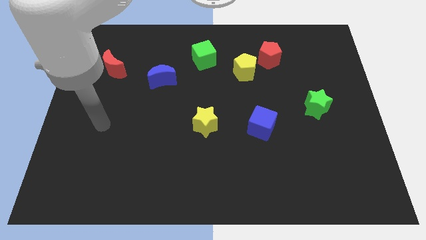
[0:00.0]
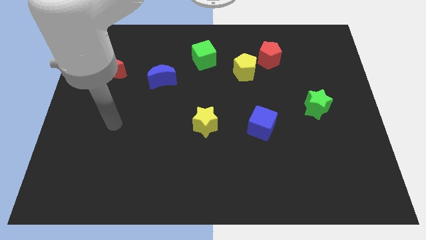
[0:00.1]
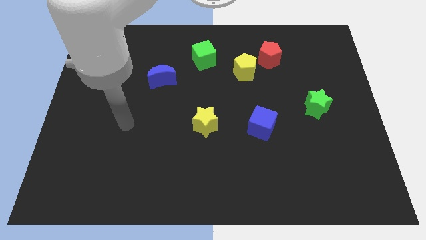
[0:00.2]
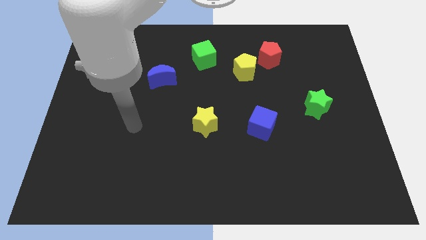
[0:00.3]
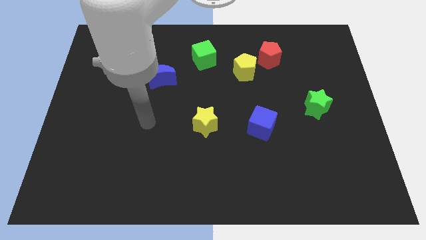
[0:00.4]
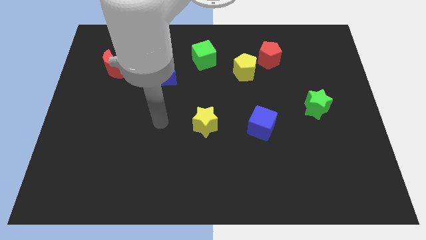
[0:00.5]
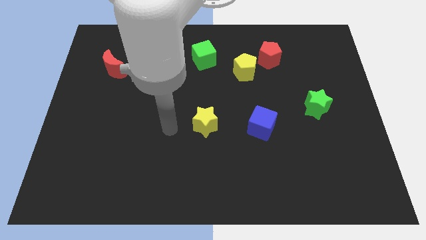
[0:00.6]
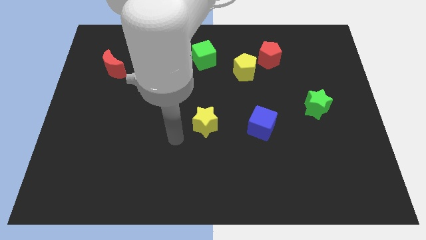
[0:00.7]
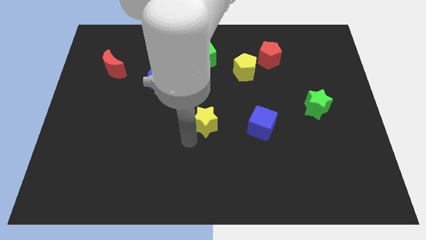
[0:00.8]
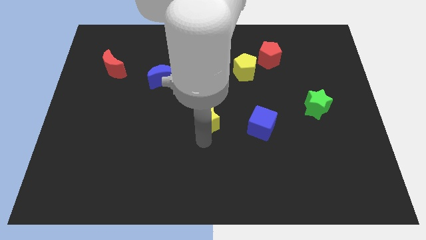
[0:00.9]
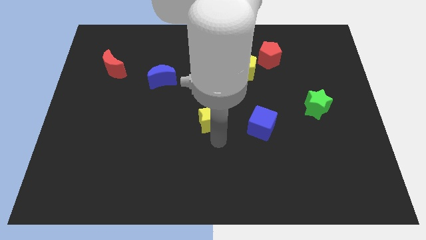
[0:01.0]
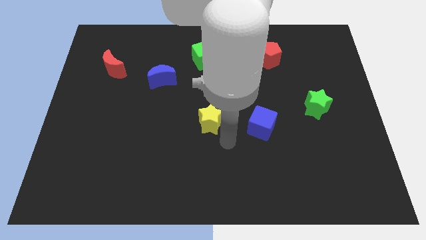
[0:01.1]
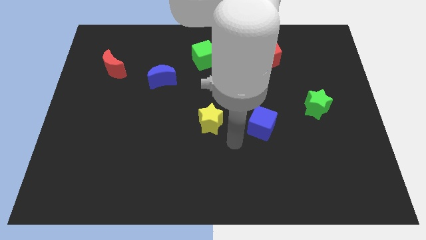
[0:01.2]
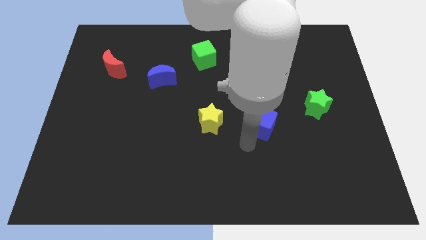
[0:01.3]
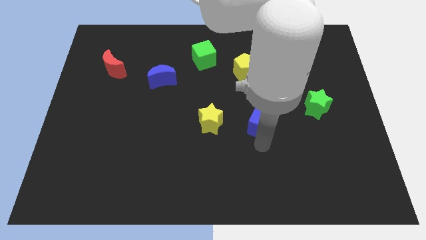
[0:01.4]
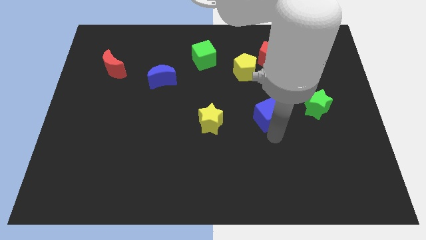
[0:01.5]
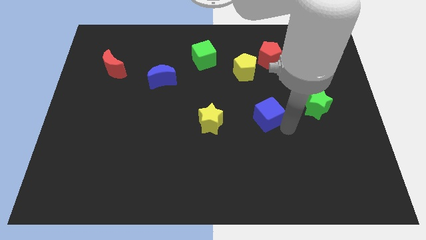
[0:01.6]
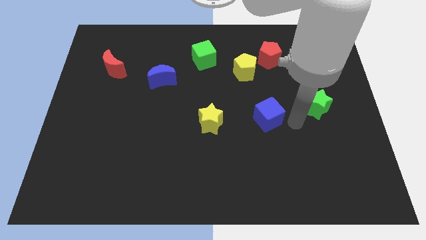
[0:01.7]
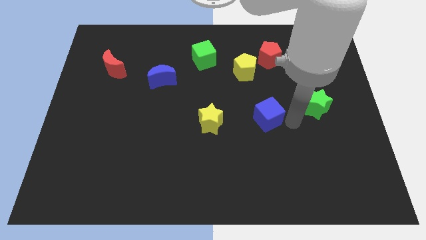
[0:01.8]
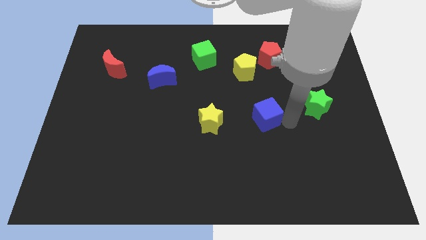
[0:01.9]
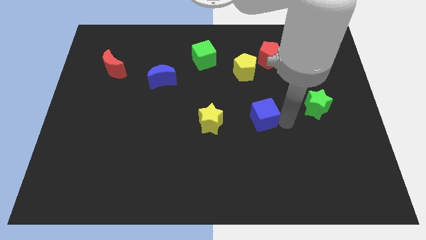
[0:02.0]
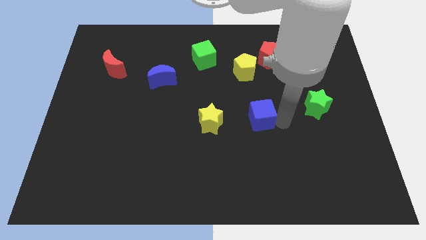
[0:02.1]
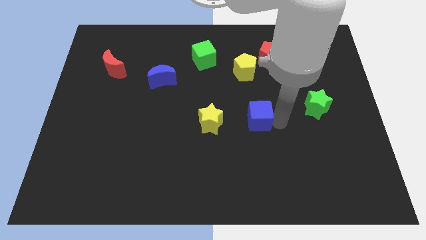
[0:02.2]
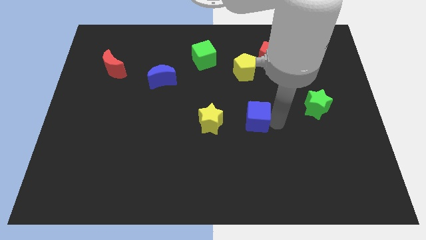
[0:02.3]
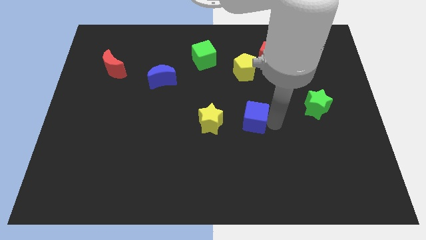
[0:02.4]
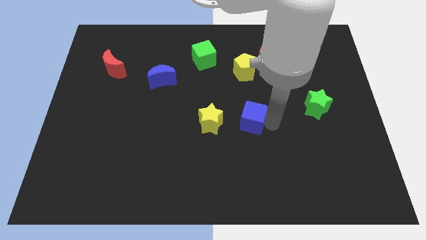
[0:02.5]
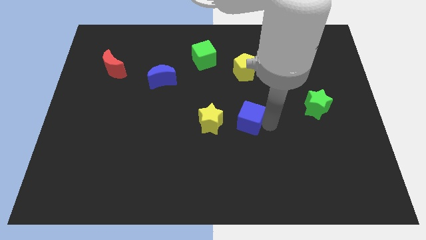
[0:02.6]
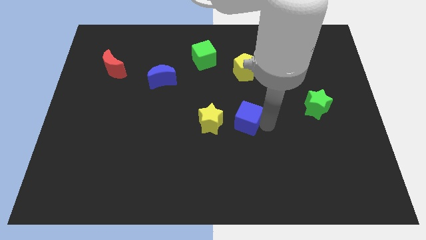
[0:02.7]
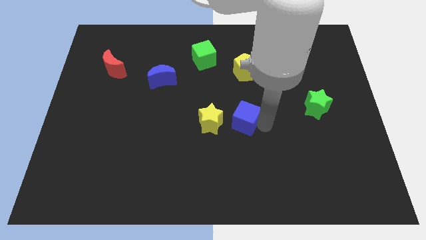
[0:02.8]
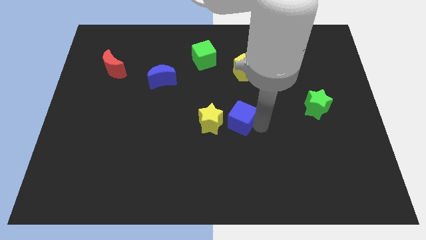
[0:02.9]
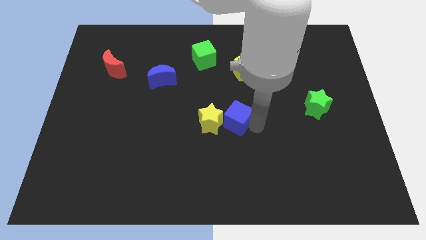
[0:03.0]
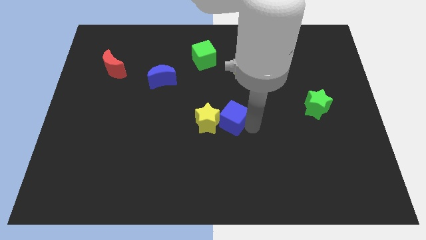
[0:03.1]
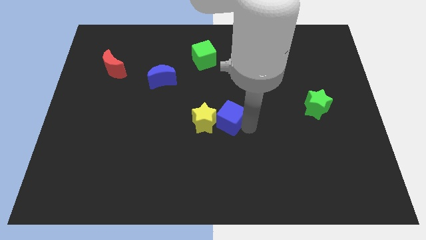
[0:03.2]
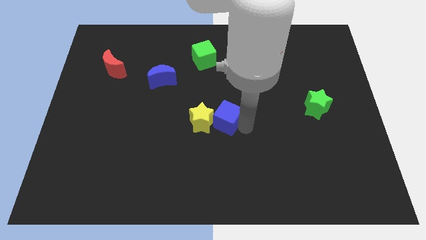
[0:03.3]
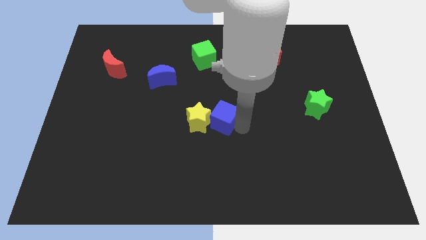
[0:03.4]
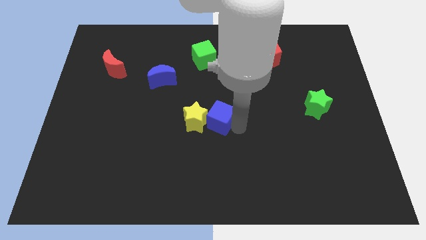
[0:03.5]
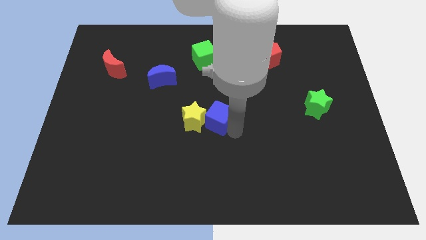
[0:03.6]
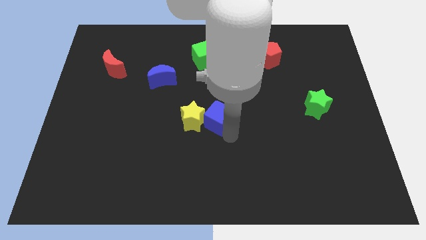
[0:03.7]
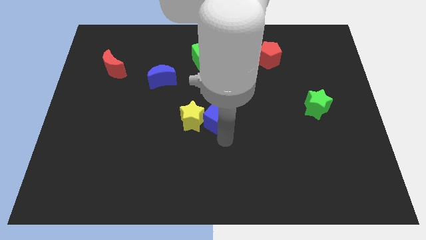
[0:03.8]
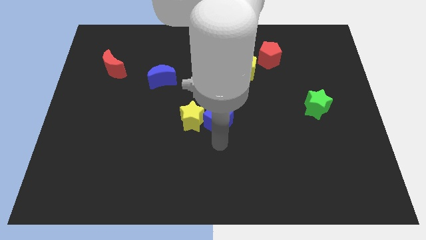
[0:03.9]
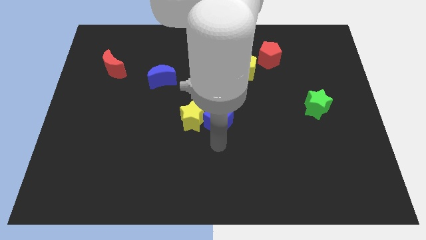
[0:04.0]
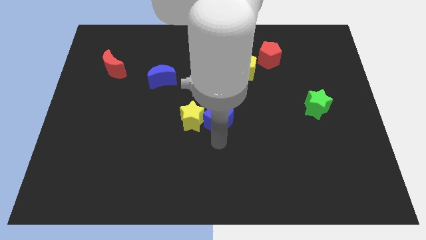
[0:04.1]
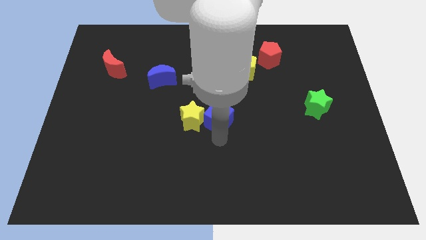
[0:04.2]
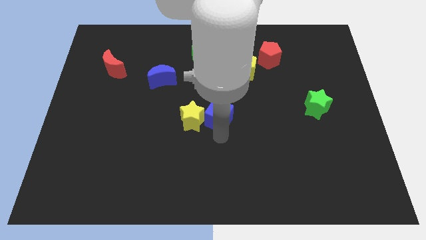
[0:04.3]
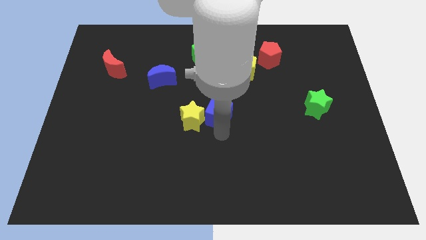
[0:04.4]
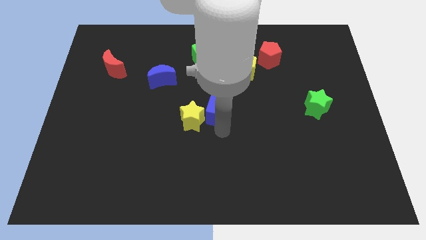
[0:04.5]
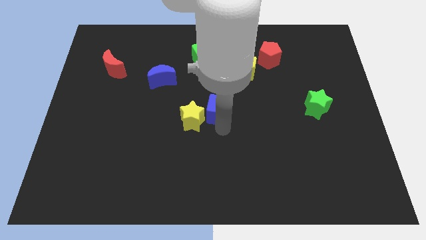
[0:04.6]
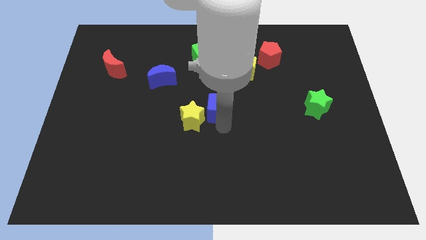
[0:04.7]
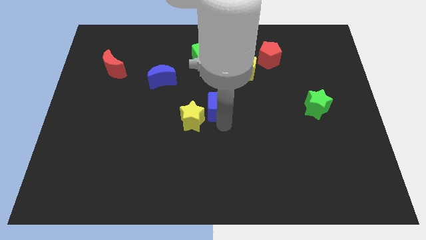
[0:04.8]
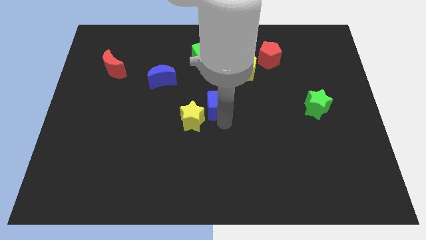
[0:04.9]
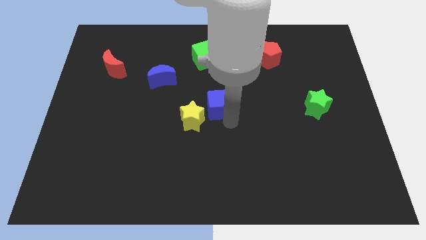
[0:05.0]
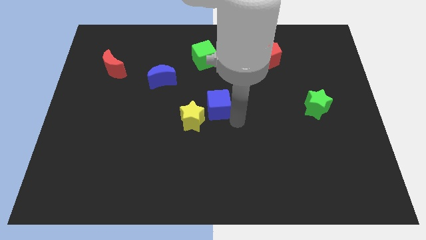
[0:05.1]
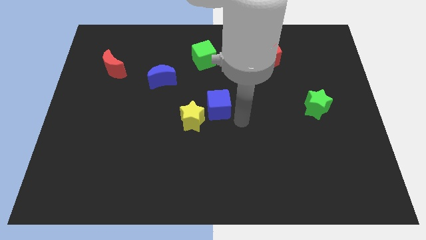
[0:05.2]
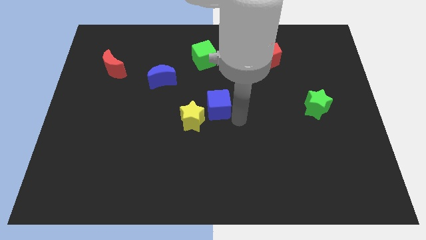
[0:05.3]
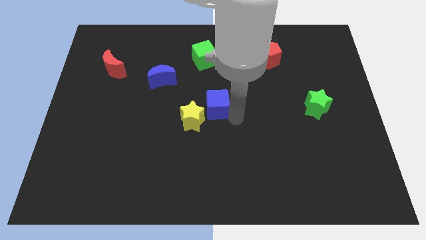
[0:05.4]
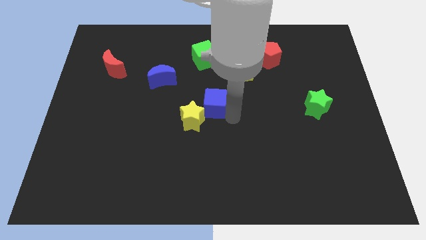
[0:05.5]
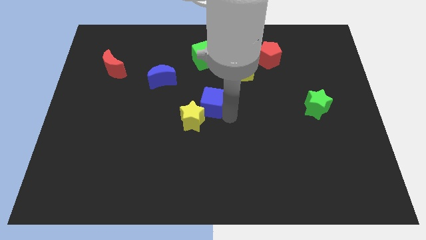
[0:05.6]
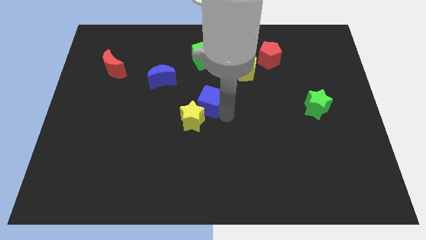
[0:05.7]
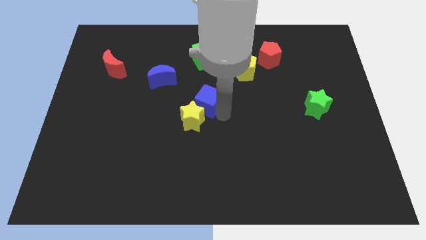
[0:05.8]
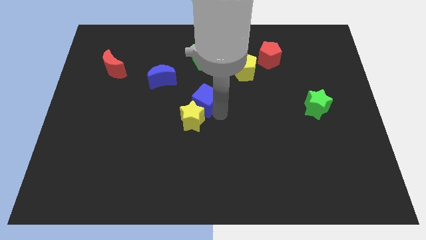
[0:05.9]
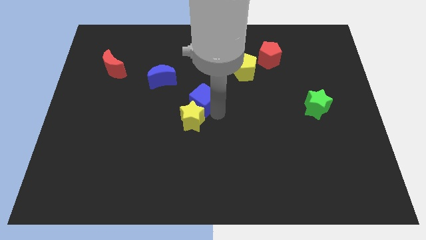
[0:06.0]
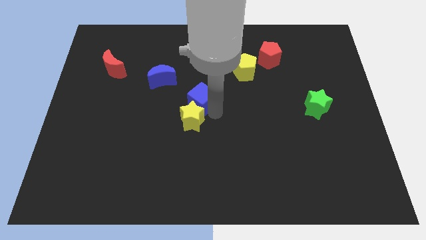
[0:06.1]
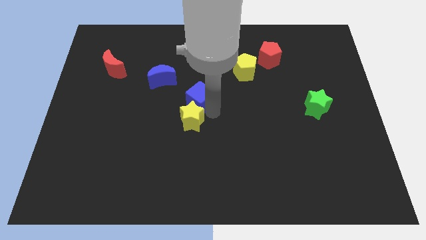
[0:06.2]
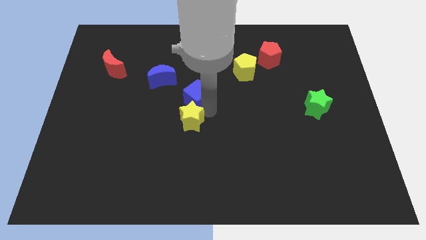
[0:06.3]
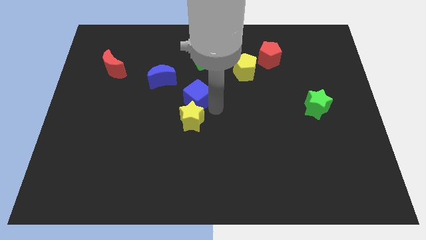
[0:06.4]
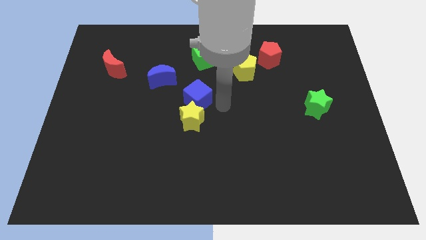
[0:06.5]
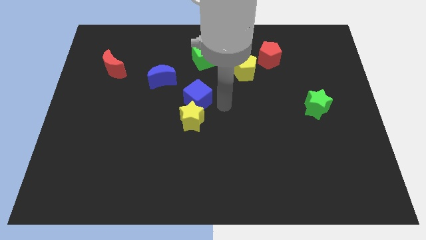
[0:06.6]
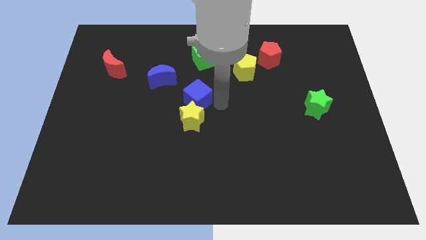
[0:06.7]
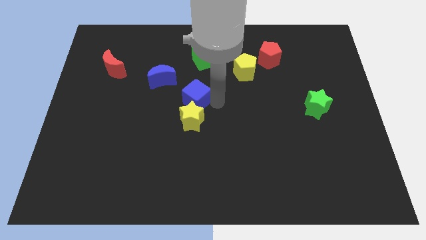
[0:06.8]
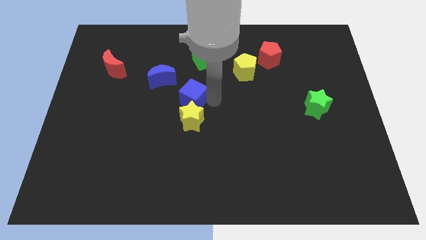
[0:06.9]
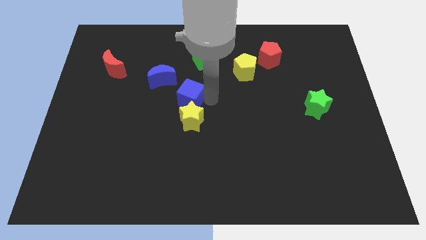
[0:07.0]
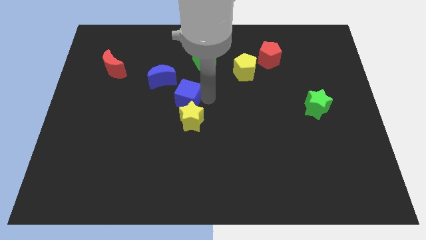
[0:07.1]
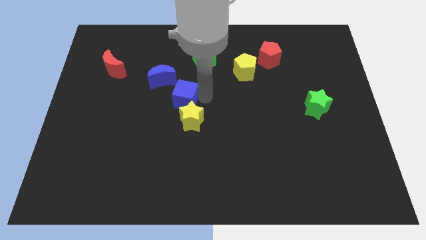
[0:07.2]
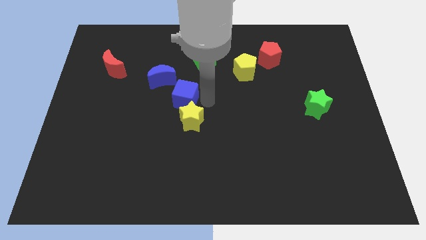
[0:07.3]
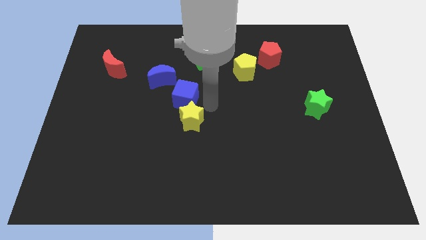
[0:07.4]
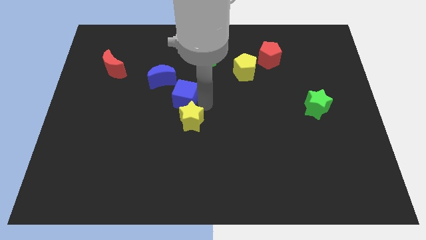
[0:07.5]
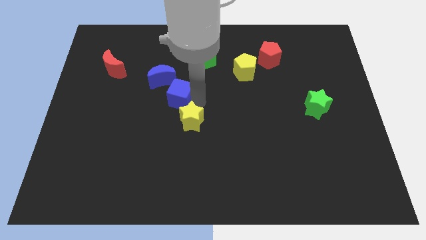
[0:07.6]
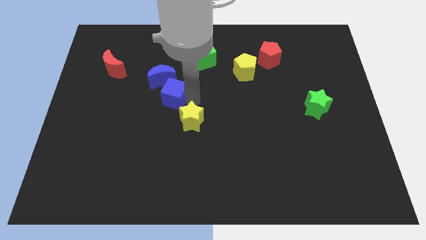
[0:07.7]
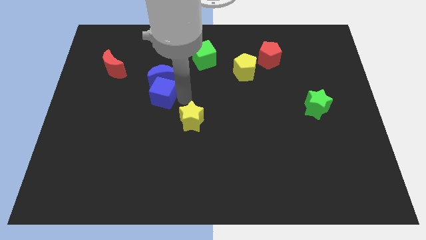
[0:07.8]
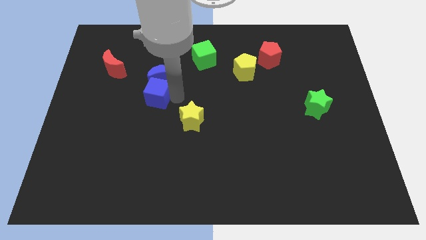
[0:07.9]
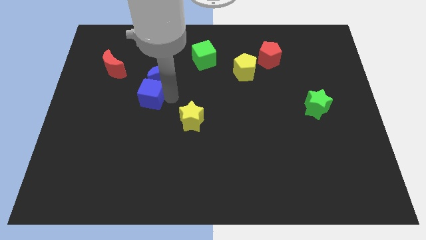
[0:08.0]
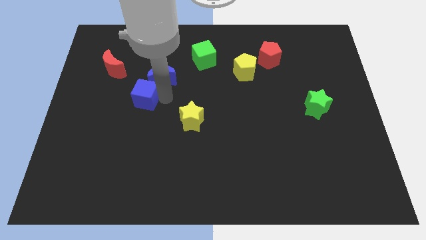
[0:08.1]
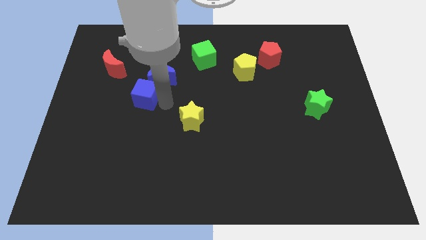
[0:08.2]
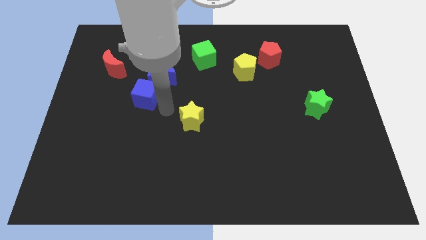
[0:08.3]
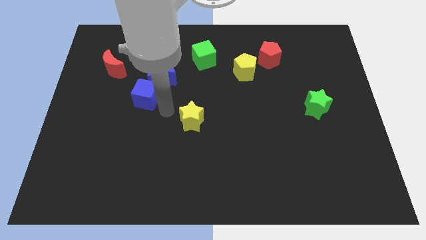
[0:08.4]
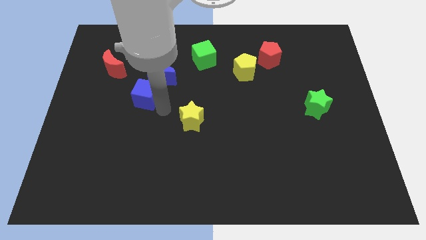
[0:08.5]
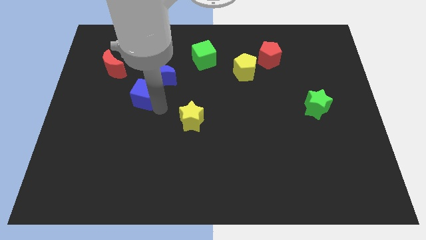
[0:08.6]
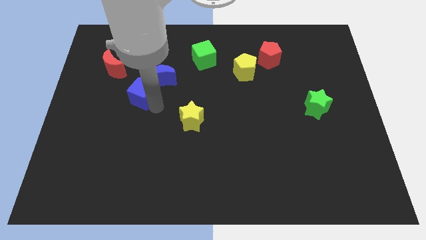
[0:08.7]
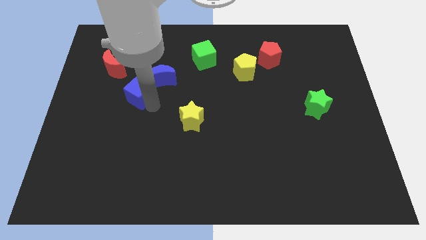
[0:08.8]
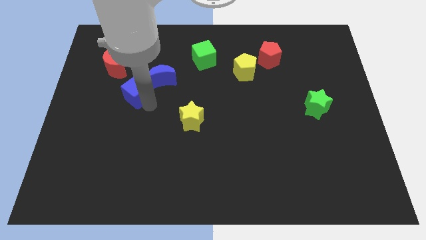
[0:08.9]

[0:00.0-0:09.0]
put the blue cube left of the blue moon
